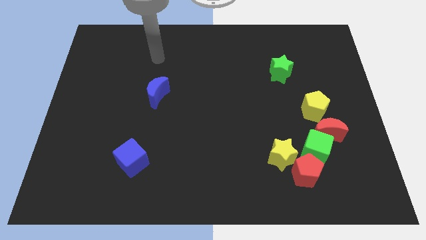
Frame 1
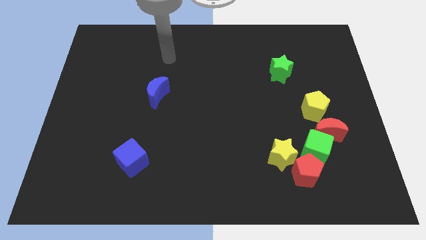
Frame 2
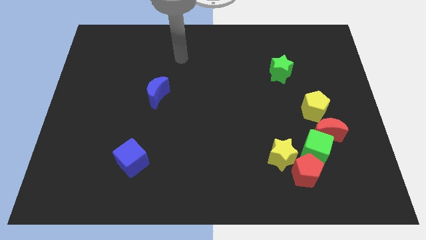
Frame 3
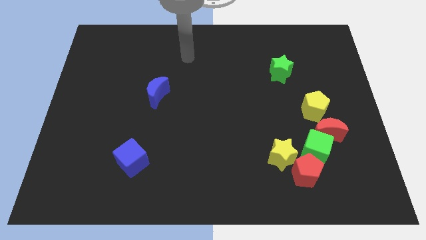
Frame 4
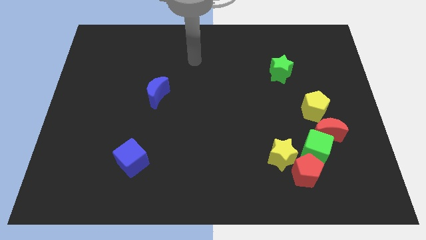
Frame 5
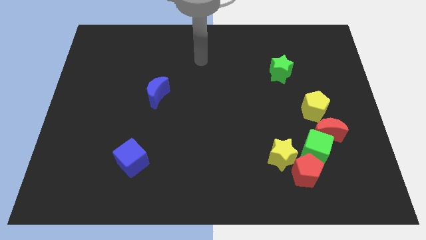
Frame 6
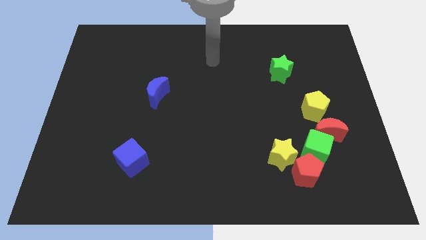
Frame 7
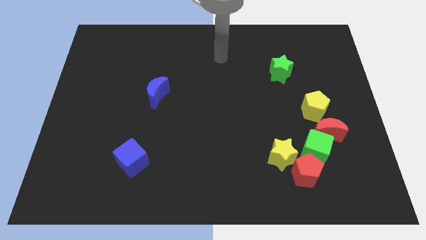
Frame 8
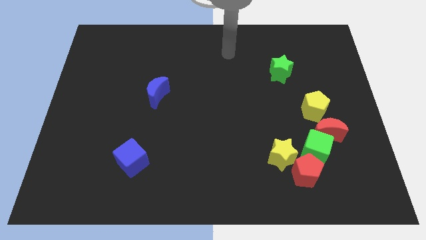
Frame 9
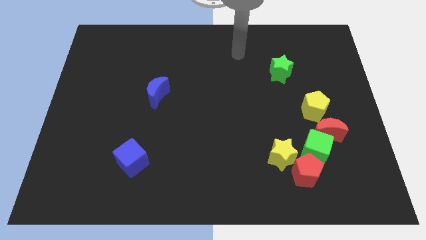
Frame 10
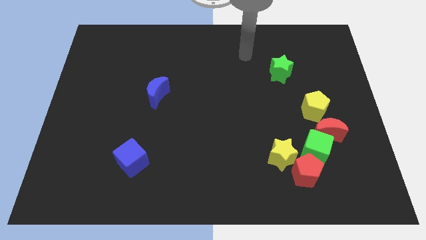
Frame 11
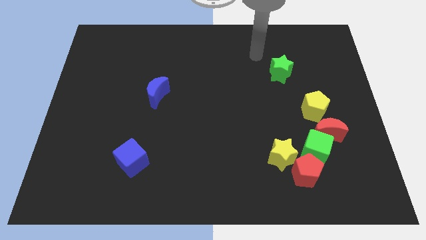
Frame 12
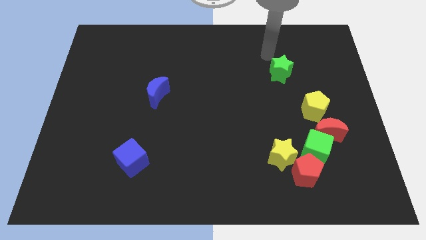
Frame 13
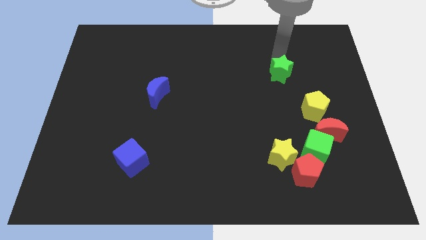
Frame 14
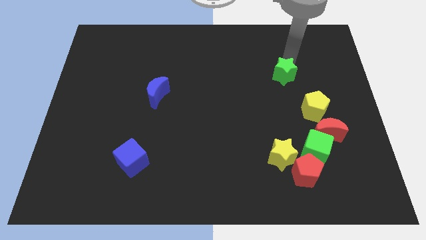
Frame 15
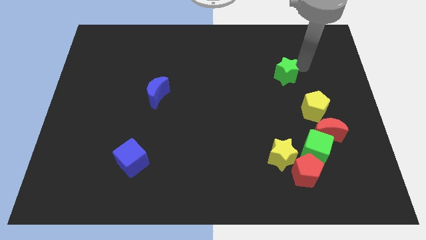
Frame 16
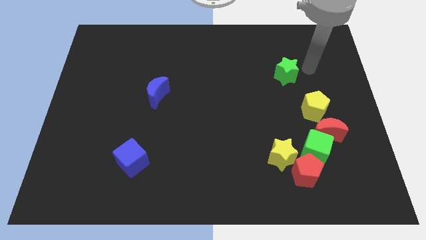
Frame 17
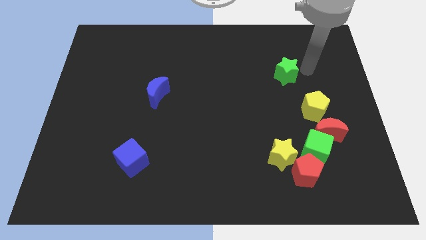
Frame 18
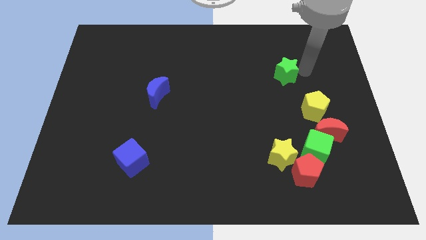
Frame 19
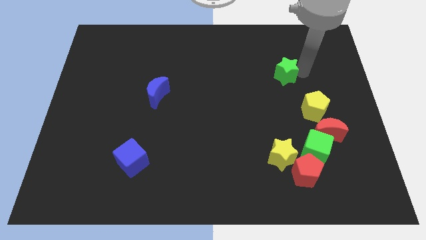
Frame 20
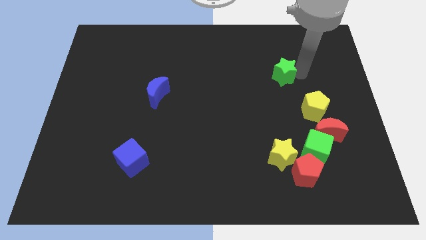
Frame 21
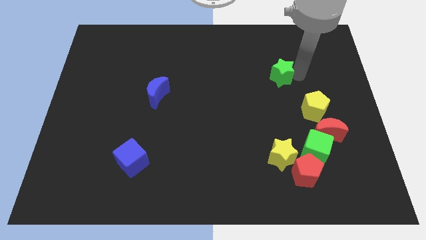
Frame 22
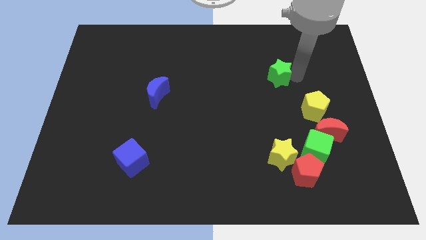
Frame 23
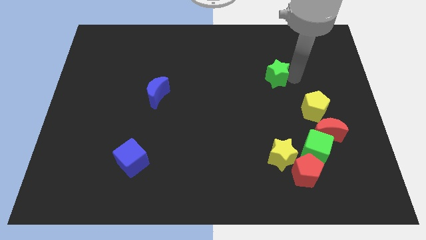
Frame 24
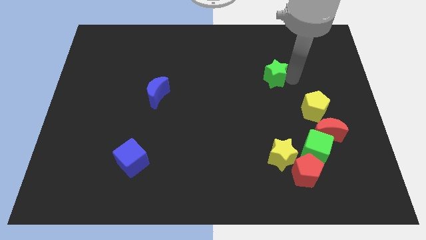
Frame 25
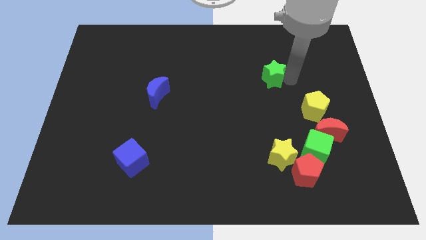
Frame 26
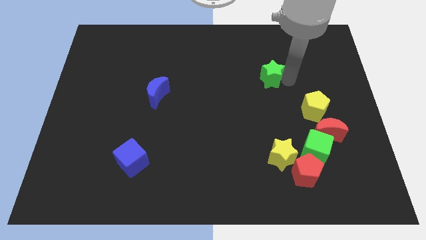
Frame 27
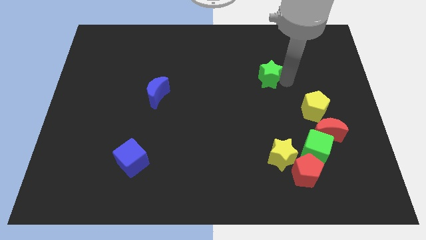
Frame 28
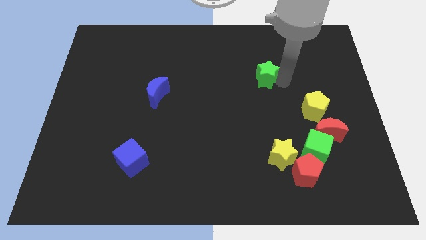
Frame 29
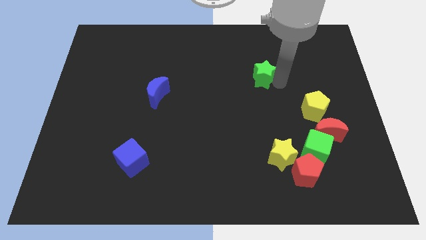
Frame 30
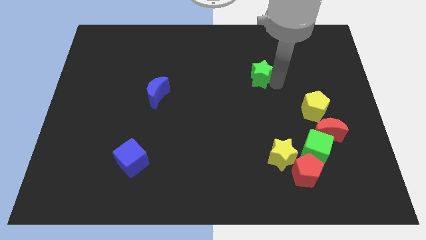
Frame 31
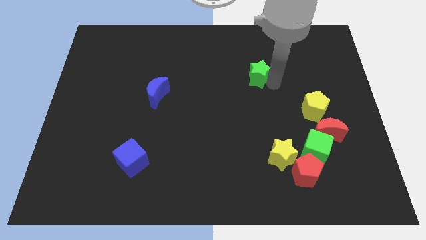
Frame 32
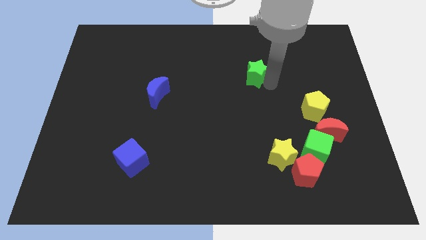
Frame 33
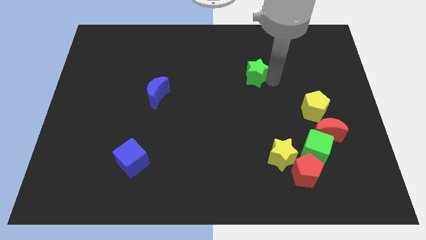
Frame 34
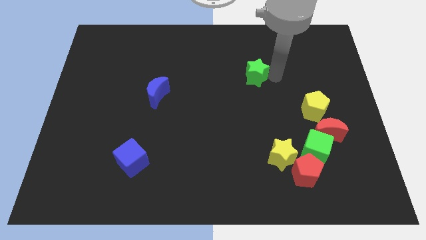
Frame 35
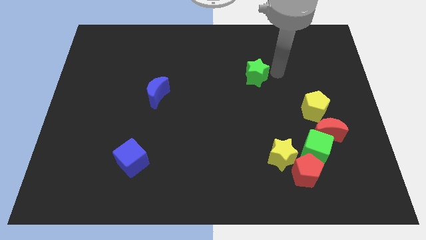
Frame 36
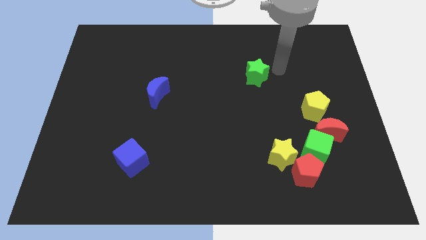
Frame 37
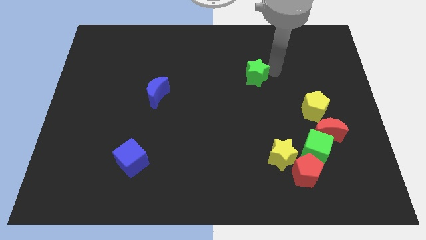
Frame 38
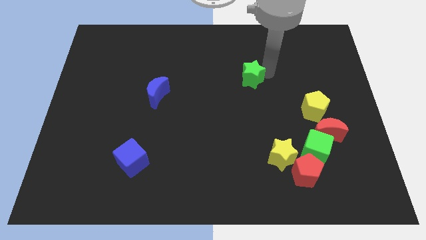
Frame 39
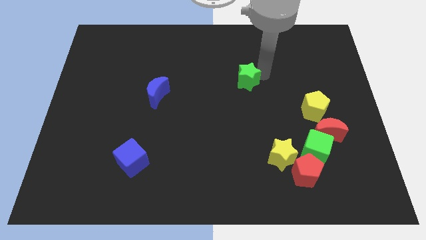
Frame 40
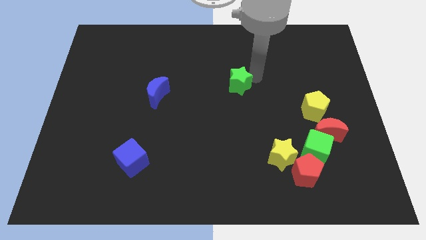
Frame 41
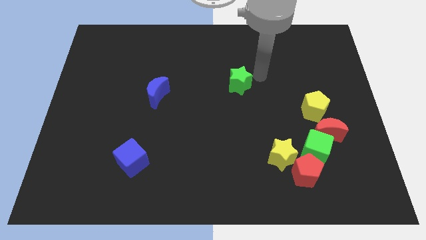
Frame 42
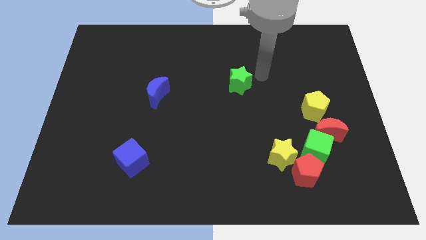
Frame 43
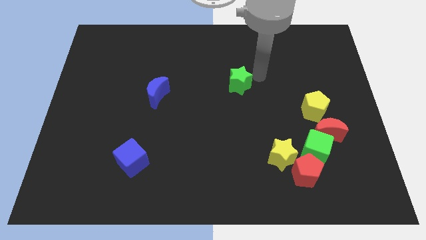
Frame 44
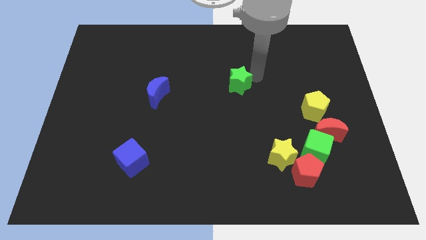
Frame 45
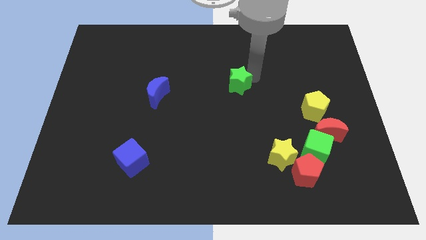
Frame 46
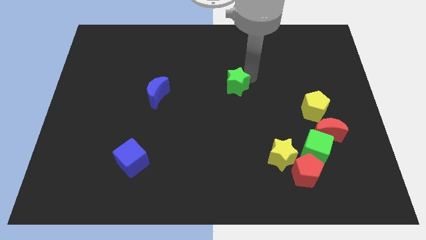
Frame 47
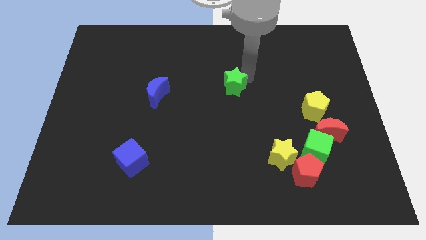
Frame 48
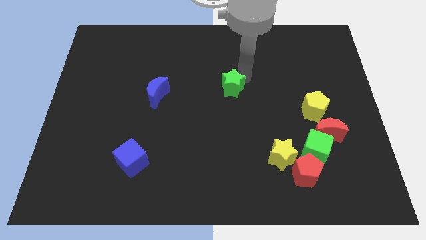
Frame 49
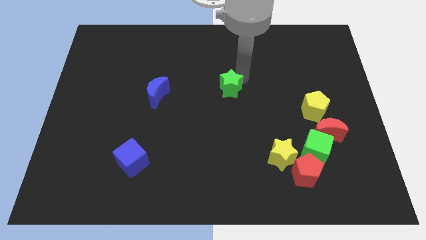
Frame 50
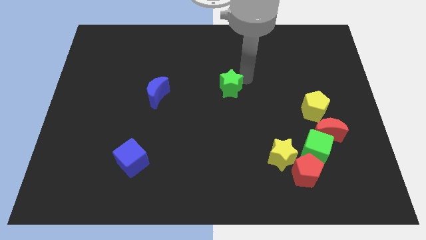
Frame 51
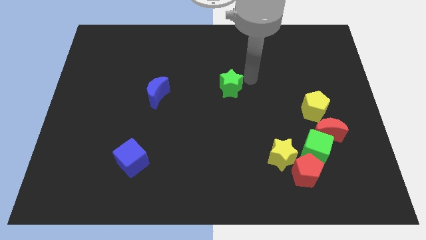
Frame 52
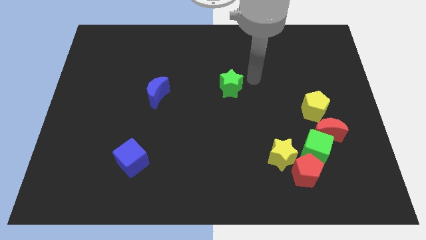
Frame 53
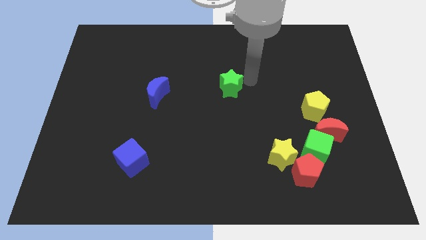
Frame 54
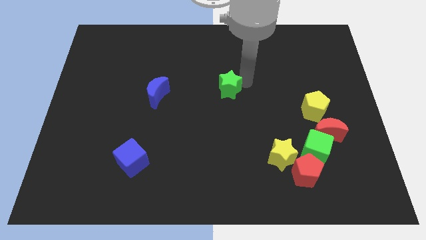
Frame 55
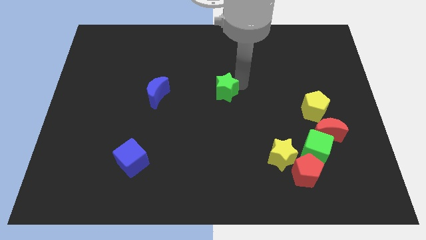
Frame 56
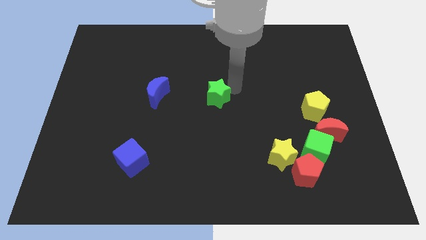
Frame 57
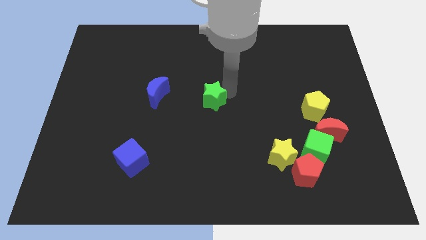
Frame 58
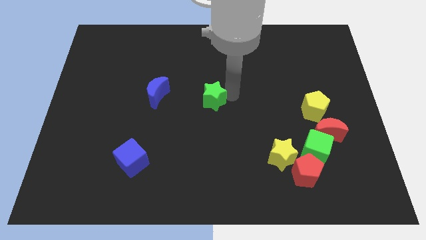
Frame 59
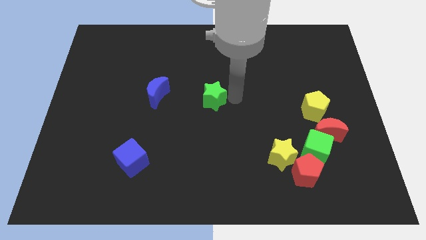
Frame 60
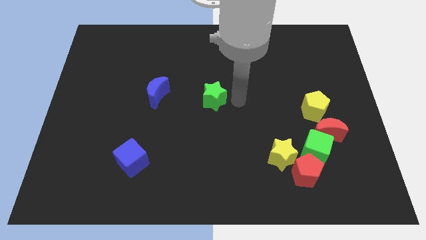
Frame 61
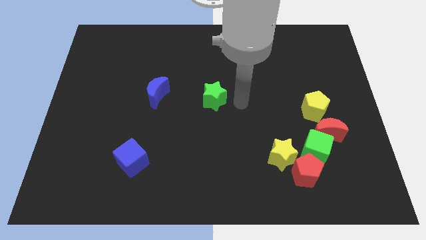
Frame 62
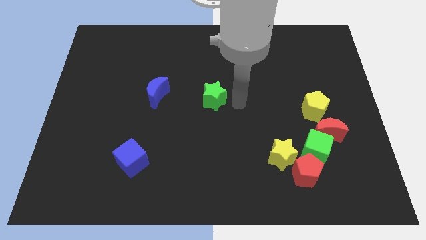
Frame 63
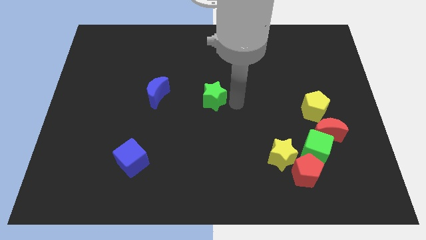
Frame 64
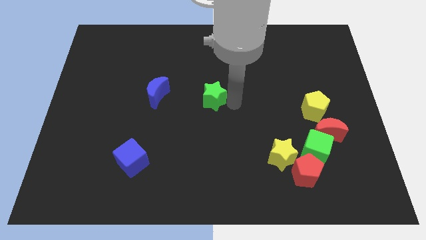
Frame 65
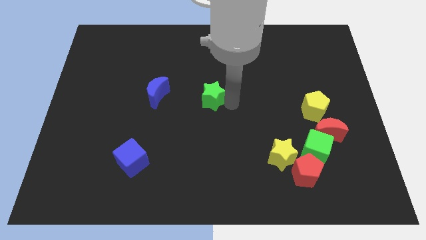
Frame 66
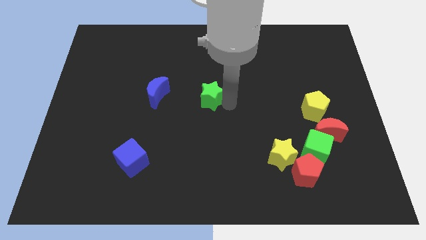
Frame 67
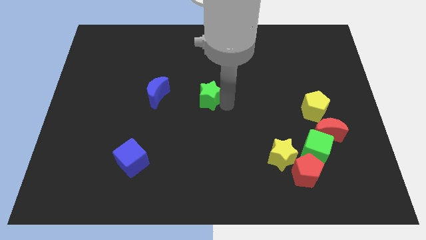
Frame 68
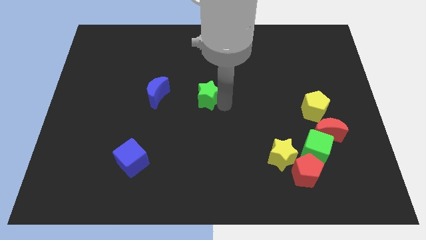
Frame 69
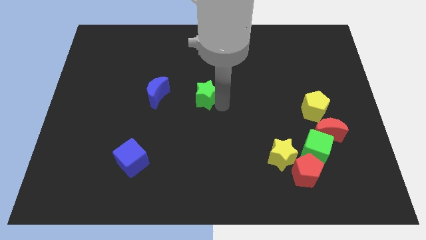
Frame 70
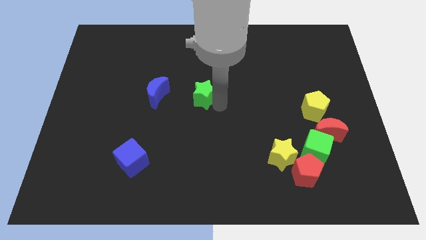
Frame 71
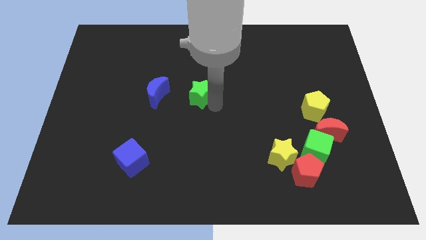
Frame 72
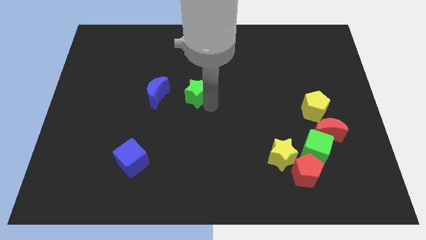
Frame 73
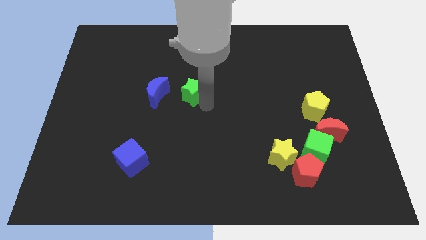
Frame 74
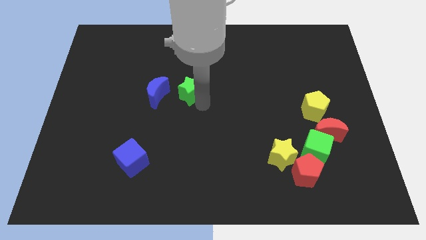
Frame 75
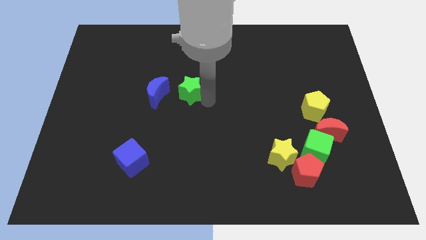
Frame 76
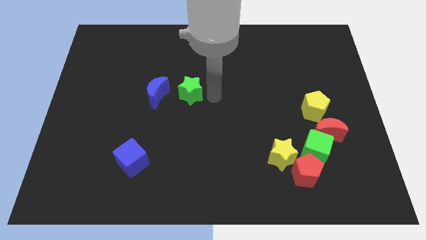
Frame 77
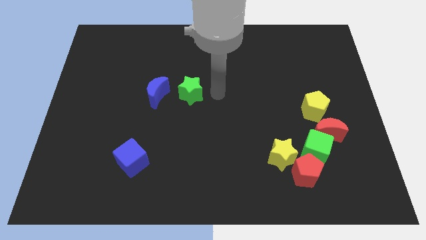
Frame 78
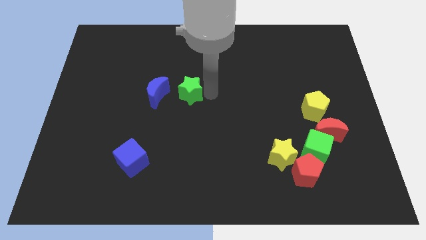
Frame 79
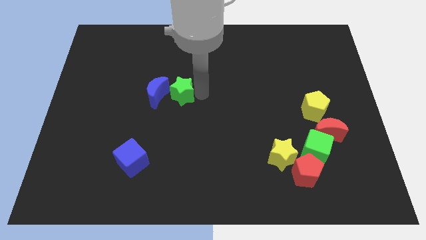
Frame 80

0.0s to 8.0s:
put the green star to the blue moon

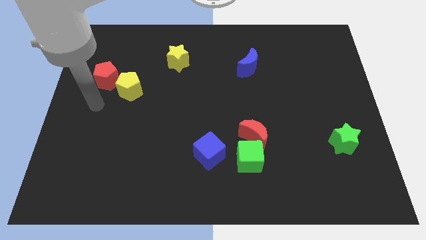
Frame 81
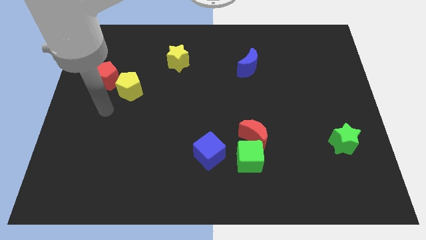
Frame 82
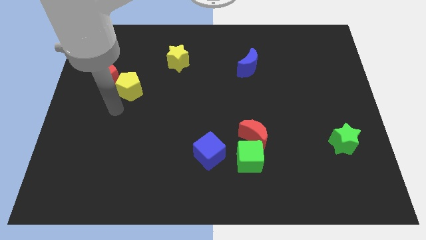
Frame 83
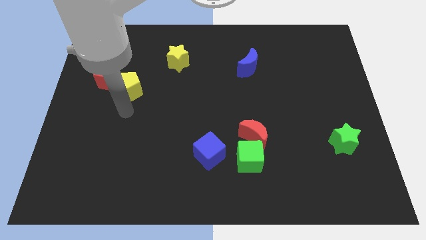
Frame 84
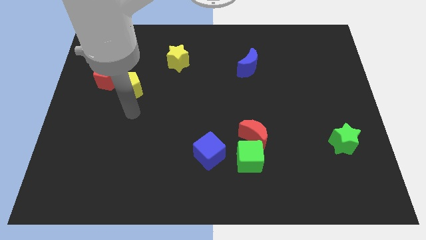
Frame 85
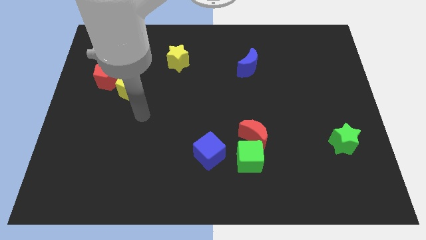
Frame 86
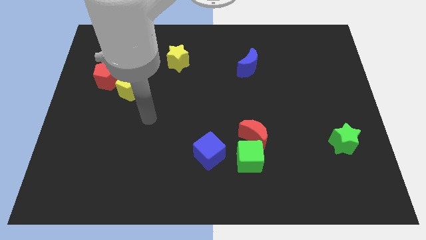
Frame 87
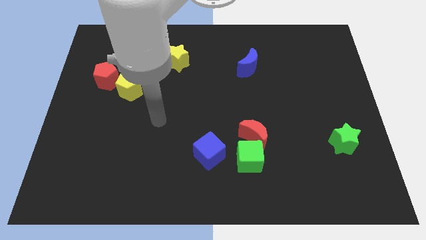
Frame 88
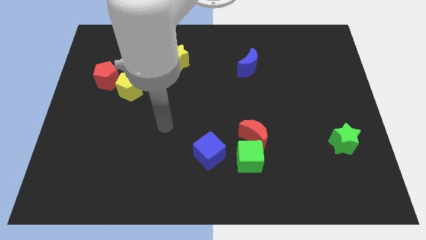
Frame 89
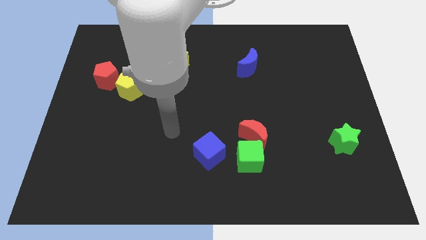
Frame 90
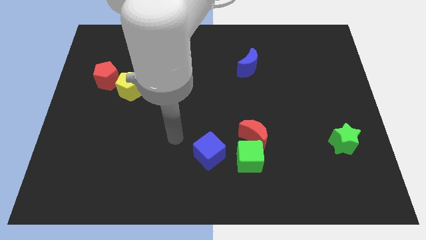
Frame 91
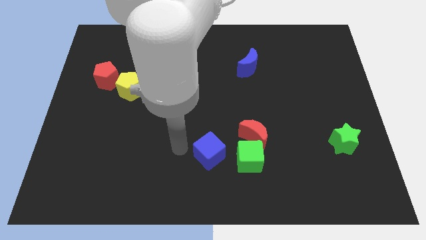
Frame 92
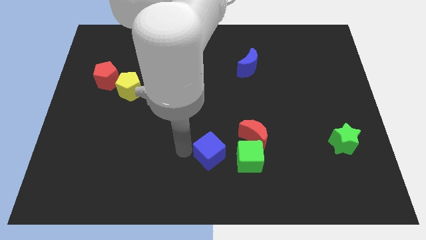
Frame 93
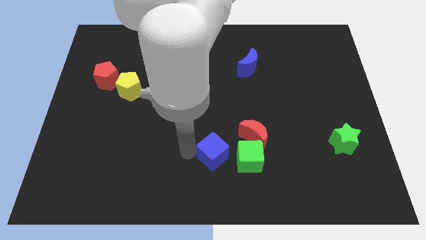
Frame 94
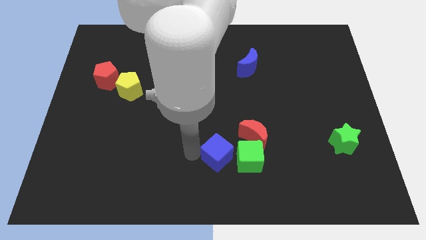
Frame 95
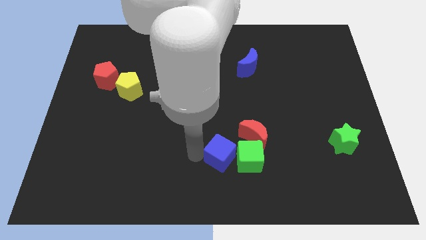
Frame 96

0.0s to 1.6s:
move the blue cube next to the green cube
